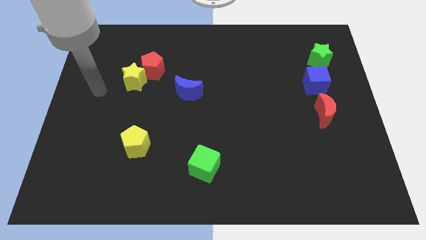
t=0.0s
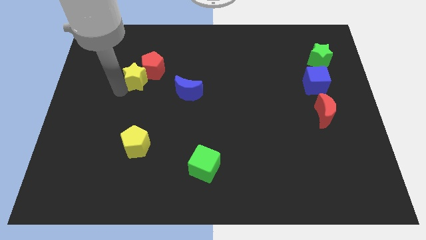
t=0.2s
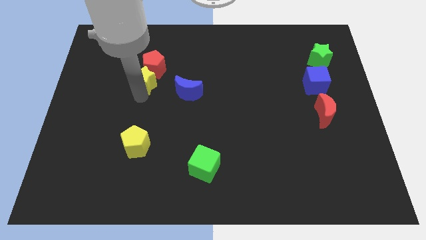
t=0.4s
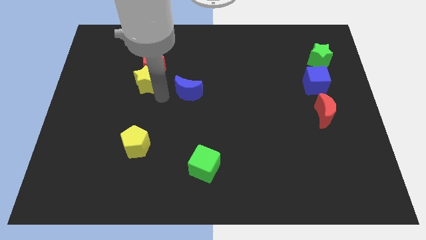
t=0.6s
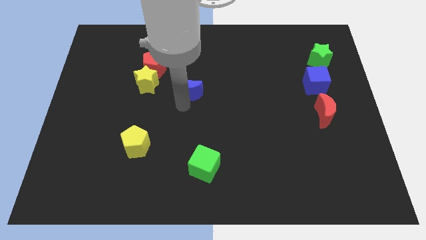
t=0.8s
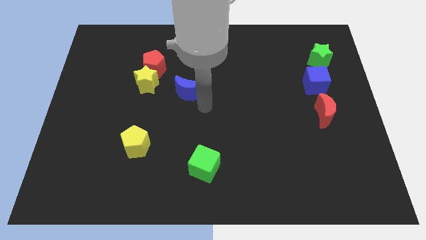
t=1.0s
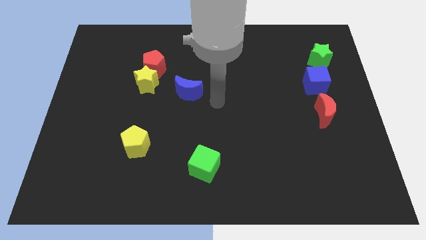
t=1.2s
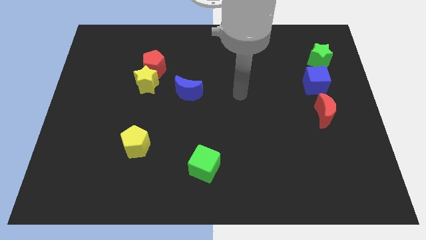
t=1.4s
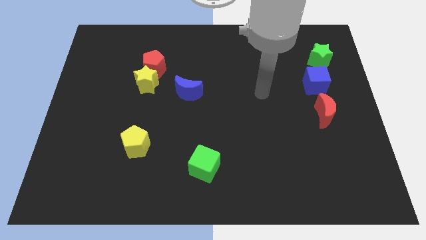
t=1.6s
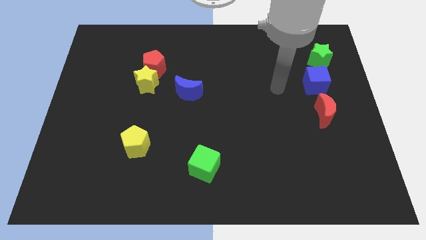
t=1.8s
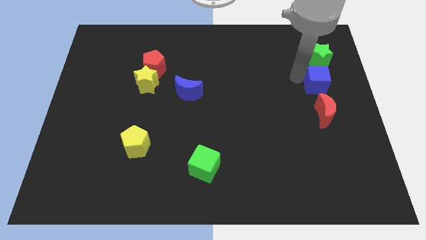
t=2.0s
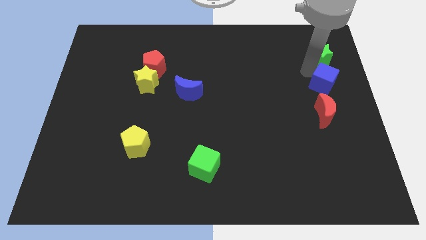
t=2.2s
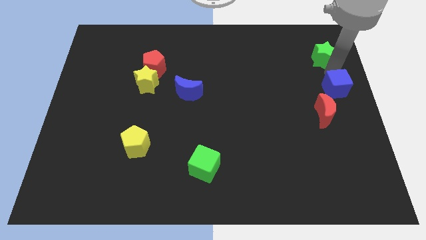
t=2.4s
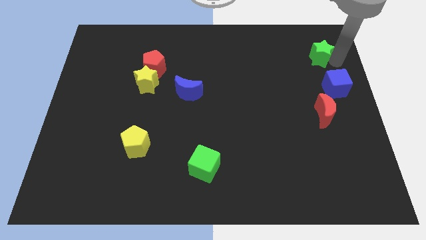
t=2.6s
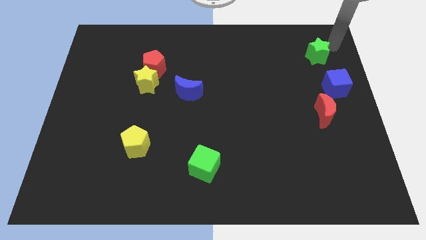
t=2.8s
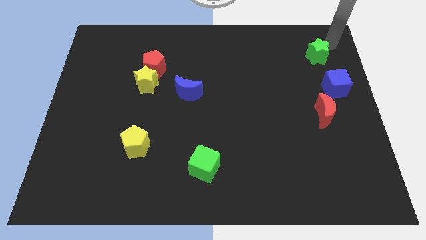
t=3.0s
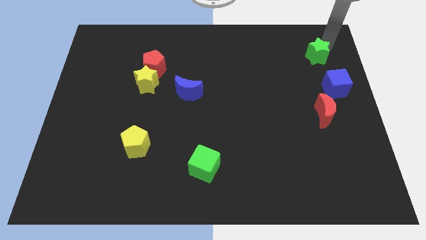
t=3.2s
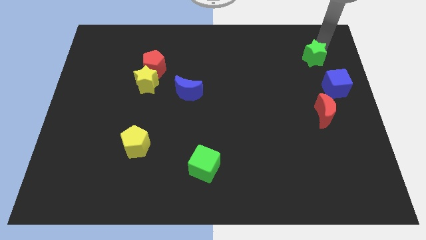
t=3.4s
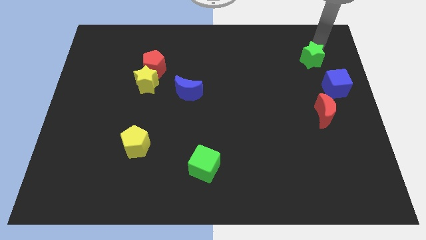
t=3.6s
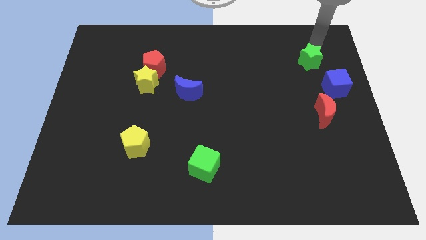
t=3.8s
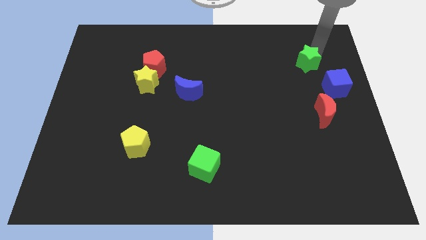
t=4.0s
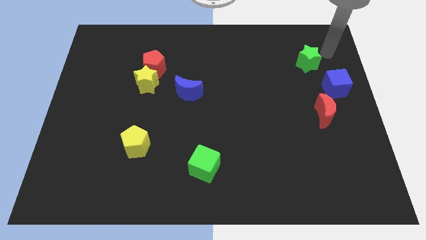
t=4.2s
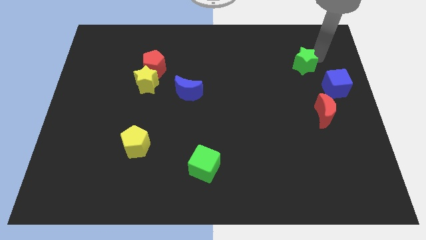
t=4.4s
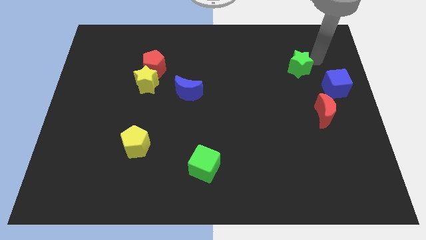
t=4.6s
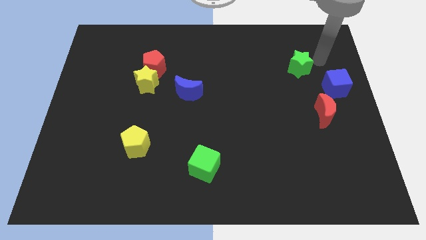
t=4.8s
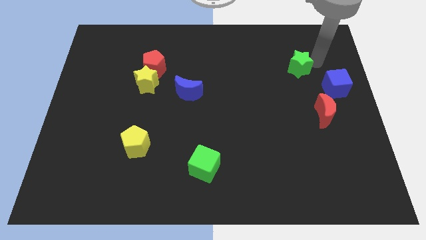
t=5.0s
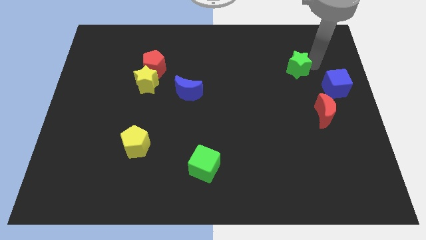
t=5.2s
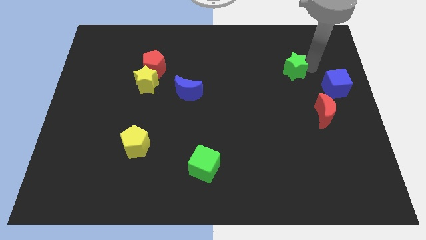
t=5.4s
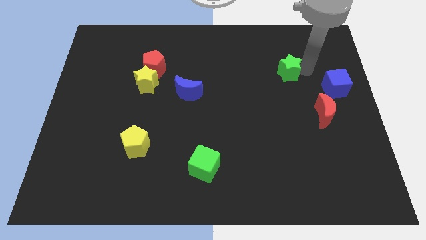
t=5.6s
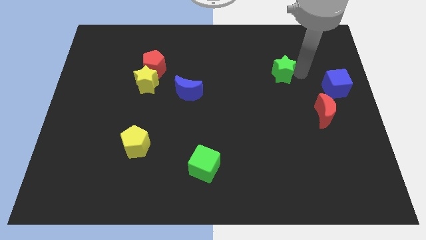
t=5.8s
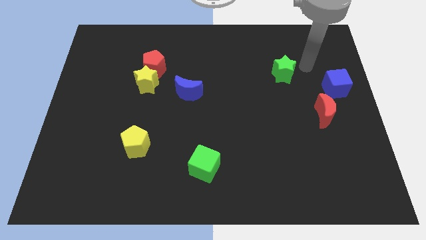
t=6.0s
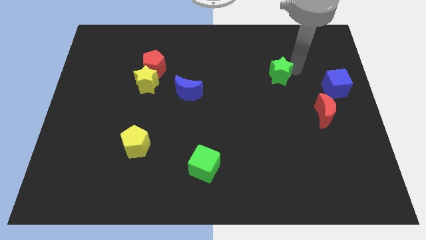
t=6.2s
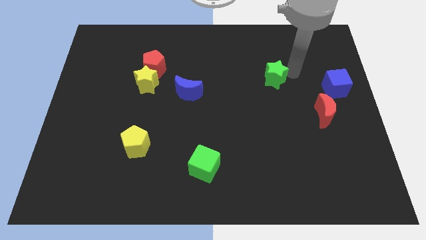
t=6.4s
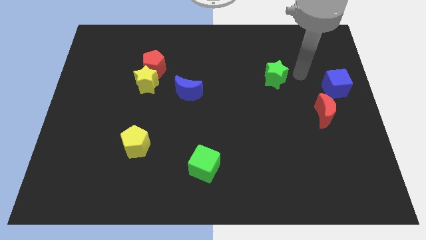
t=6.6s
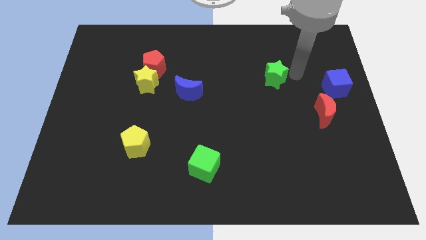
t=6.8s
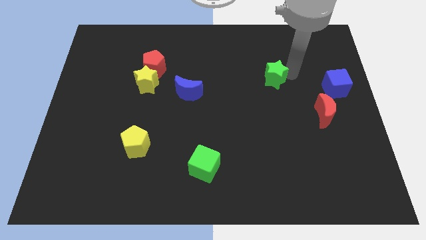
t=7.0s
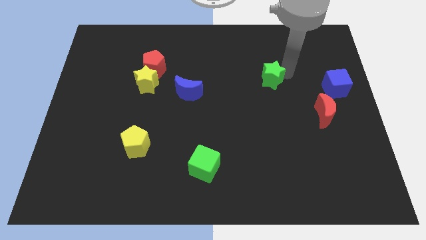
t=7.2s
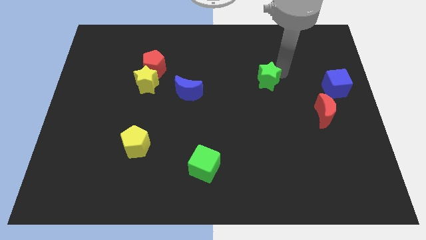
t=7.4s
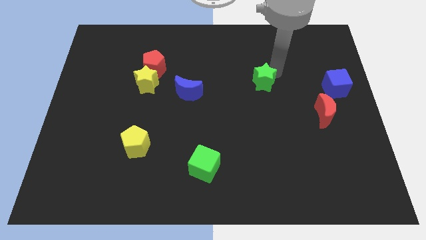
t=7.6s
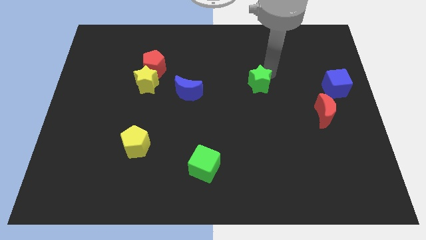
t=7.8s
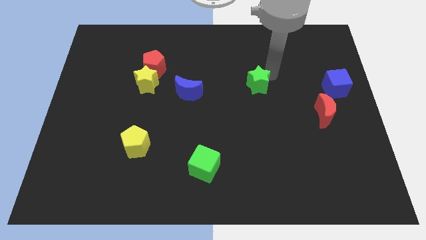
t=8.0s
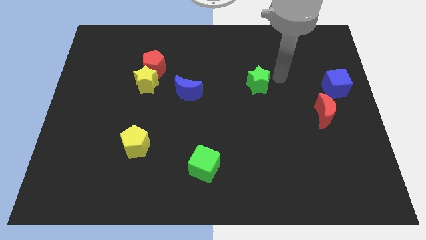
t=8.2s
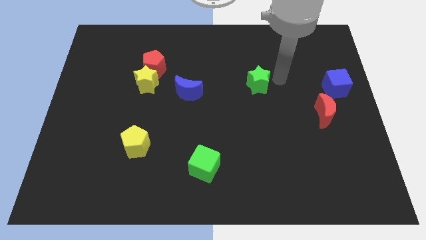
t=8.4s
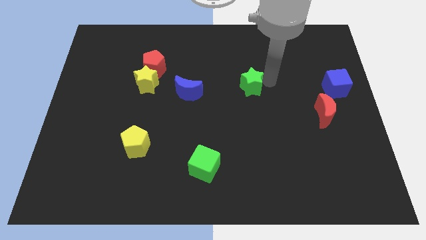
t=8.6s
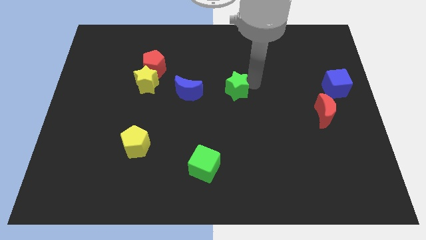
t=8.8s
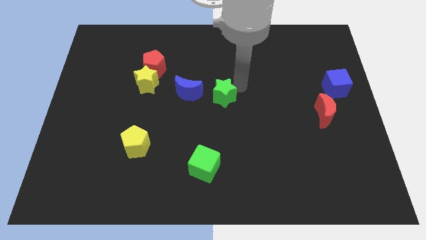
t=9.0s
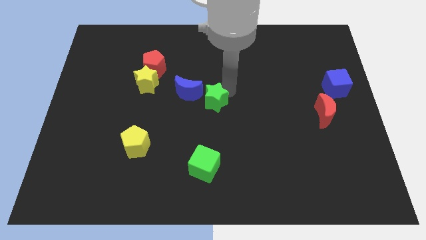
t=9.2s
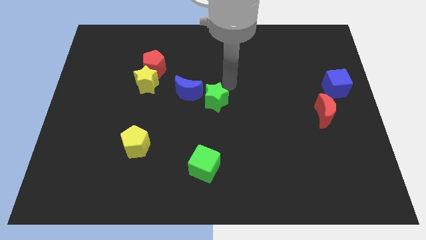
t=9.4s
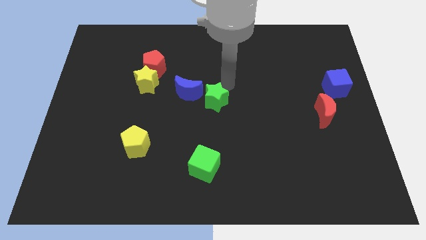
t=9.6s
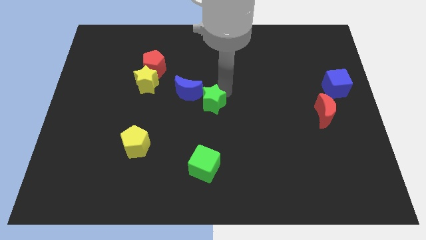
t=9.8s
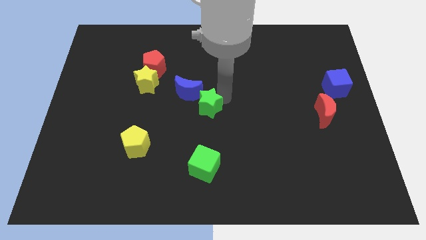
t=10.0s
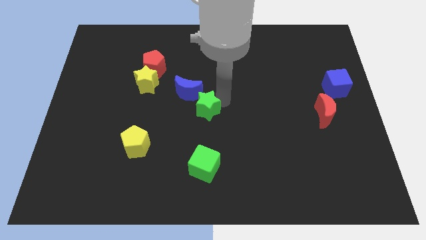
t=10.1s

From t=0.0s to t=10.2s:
push the green star to the bottom side of the blue moon

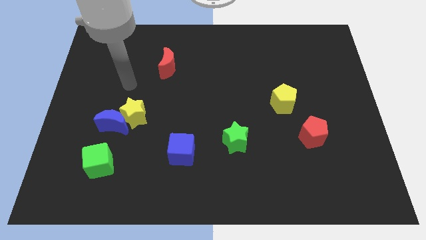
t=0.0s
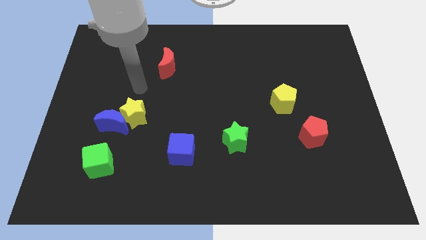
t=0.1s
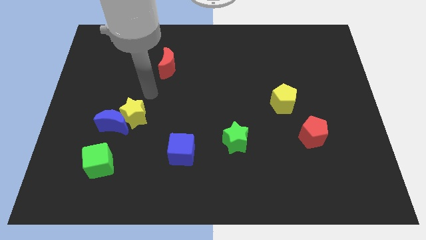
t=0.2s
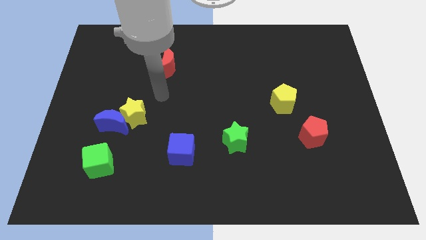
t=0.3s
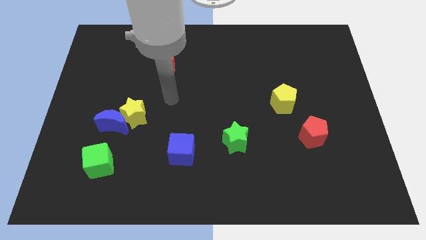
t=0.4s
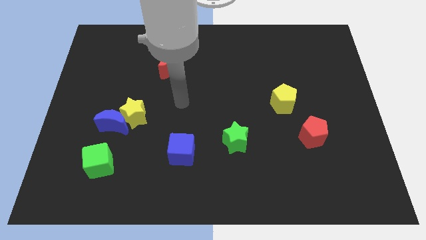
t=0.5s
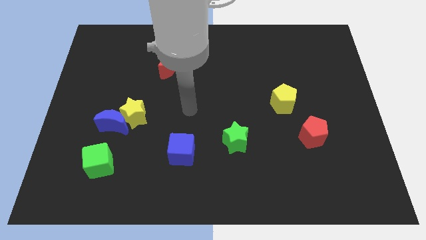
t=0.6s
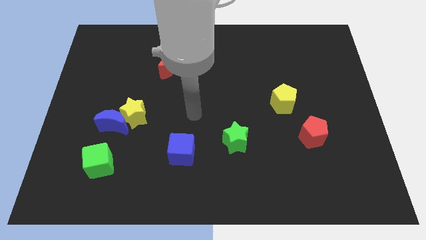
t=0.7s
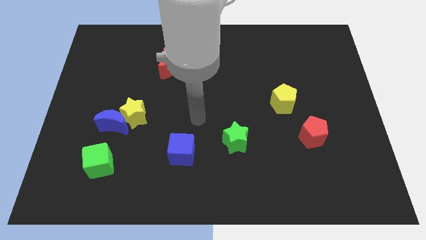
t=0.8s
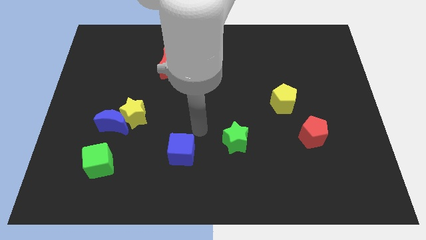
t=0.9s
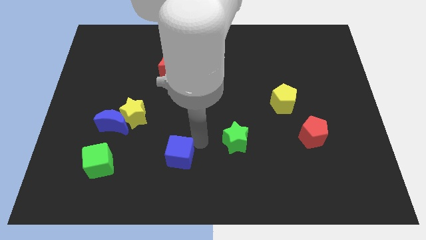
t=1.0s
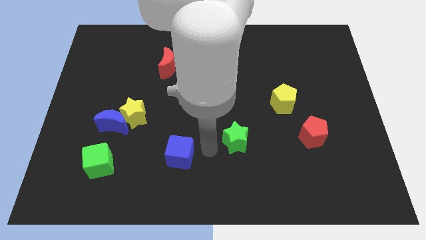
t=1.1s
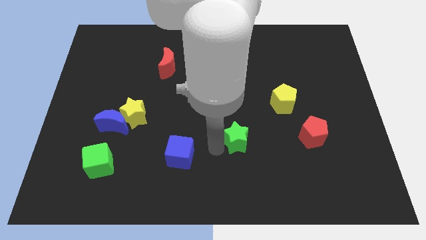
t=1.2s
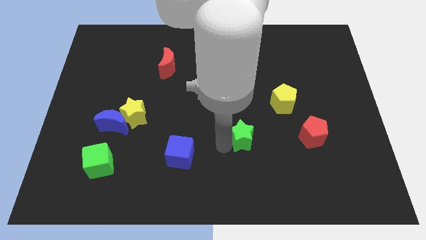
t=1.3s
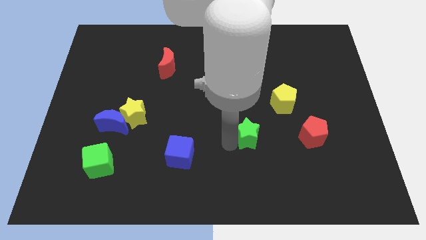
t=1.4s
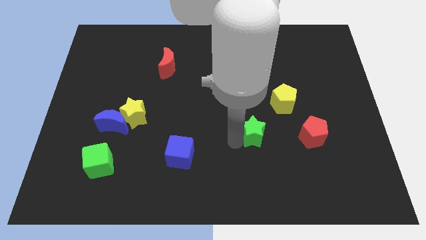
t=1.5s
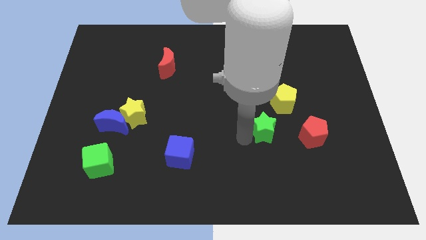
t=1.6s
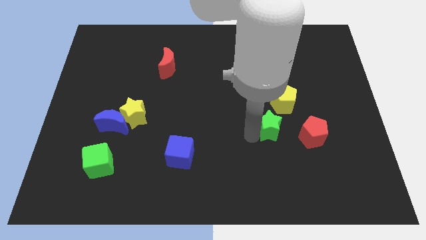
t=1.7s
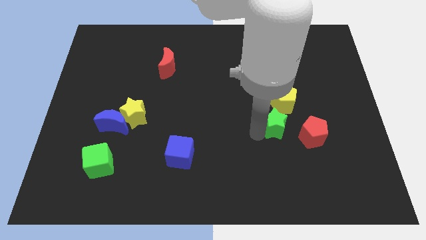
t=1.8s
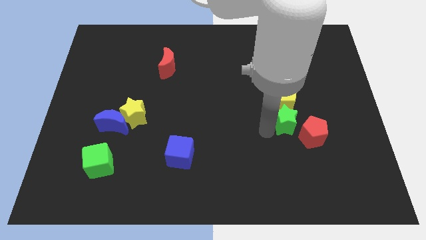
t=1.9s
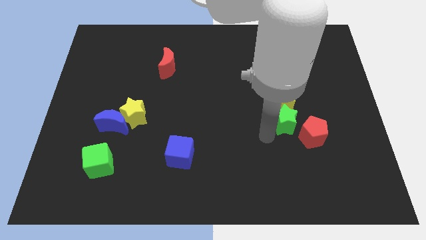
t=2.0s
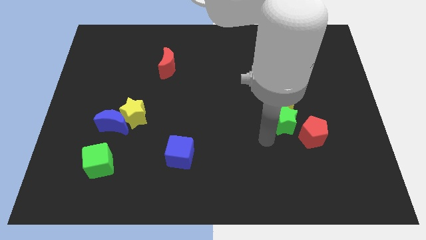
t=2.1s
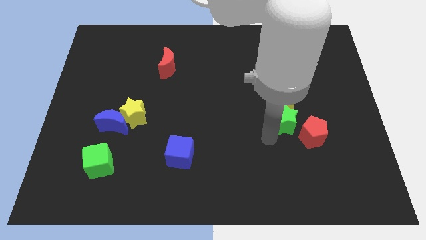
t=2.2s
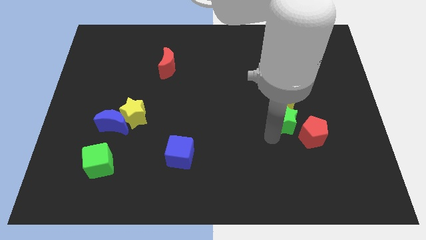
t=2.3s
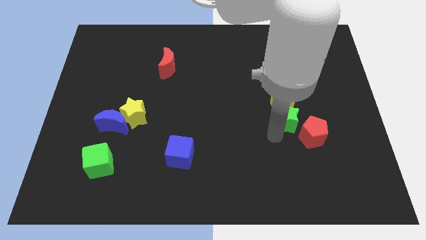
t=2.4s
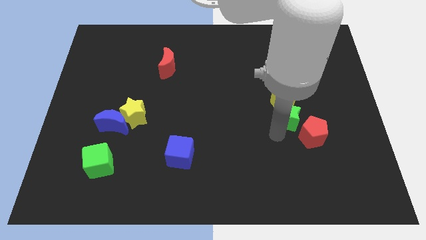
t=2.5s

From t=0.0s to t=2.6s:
move the green star above the red pentagon
